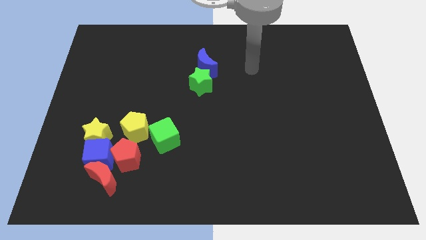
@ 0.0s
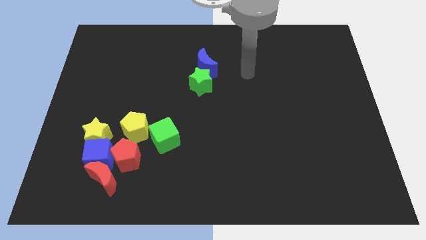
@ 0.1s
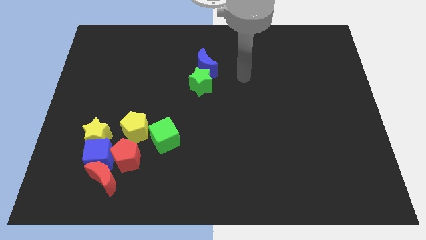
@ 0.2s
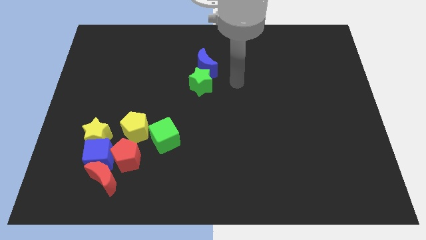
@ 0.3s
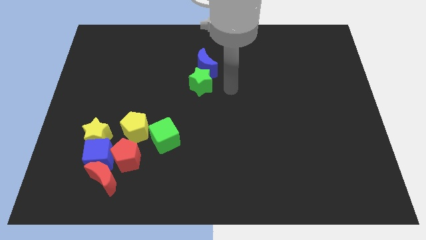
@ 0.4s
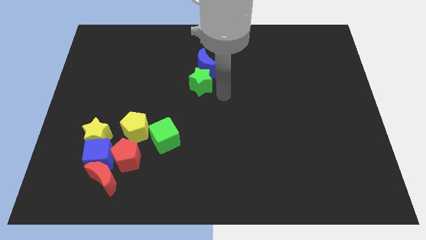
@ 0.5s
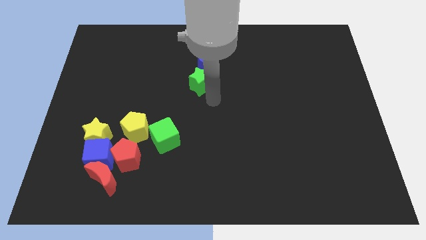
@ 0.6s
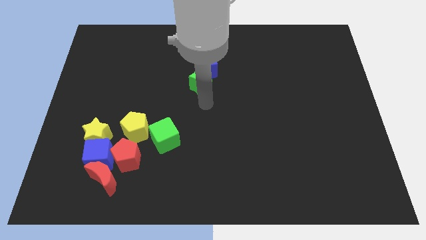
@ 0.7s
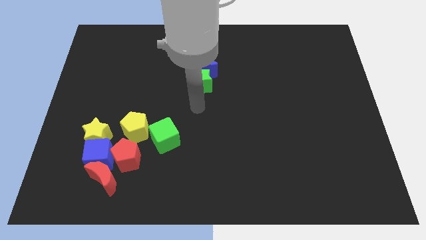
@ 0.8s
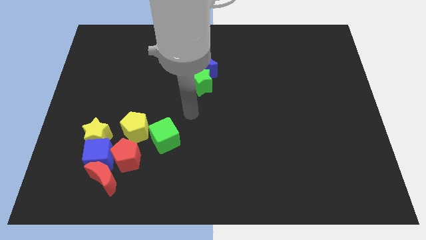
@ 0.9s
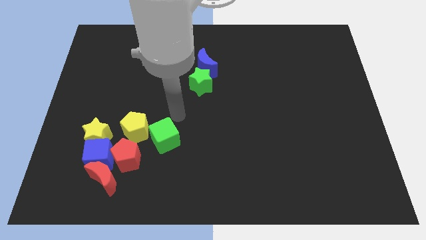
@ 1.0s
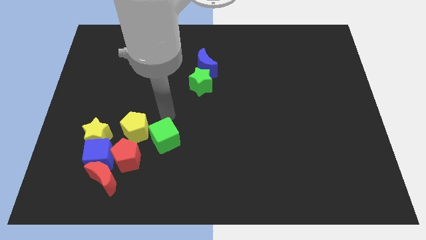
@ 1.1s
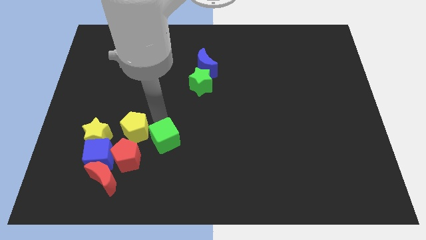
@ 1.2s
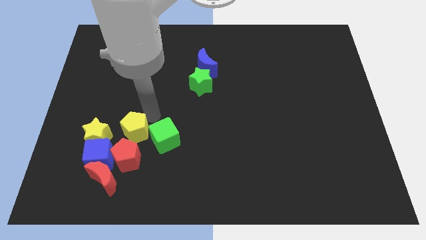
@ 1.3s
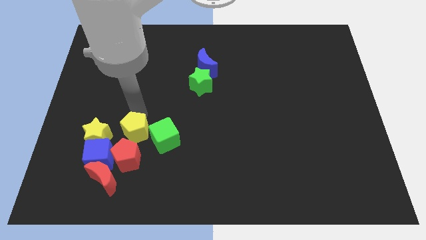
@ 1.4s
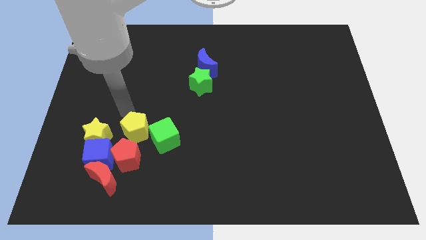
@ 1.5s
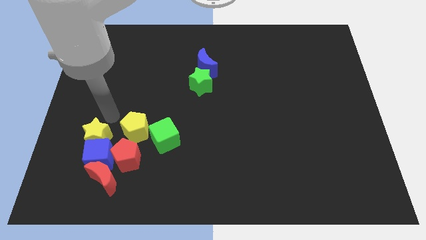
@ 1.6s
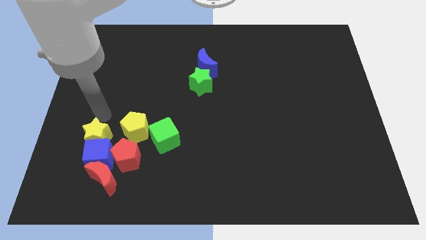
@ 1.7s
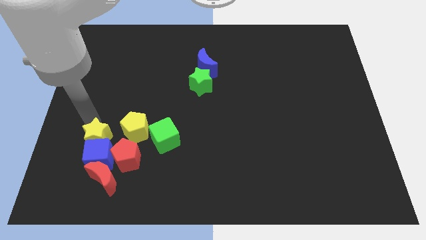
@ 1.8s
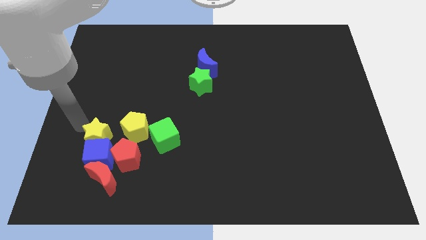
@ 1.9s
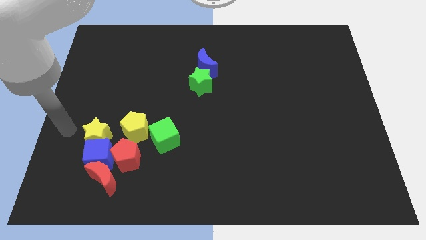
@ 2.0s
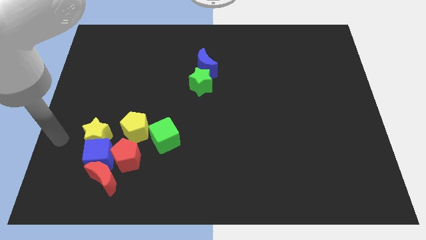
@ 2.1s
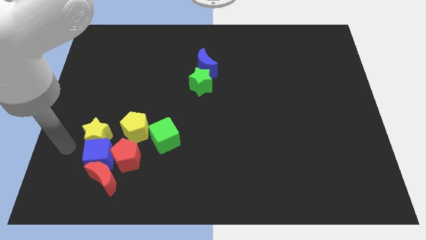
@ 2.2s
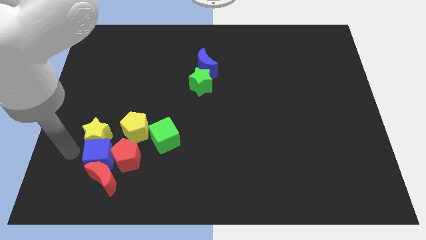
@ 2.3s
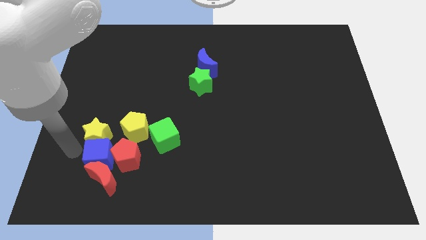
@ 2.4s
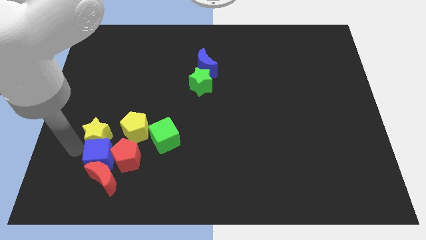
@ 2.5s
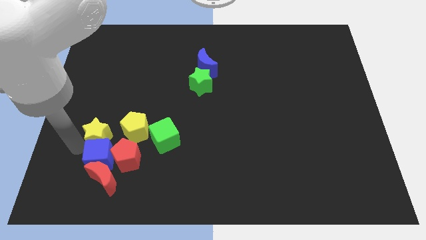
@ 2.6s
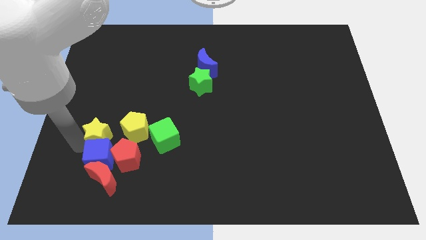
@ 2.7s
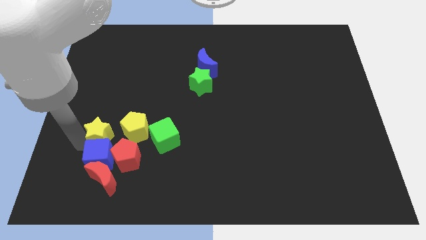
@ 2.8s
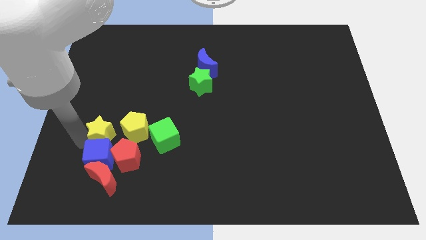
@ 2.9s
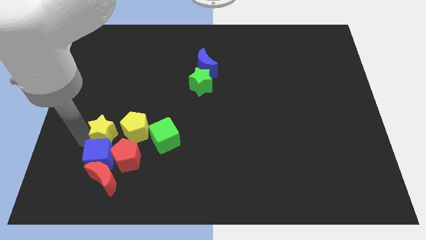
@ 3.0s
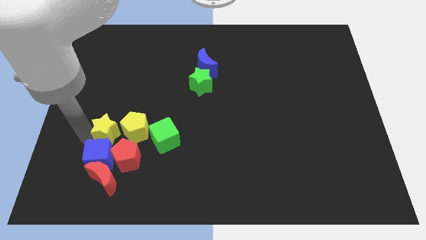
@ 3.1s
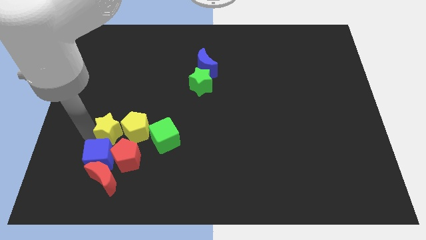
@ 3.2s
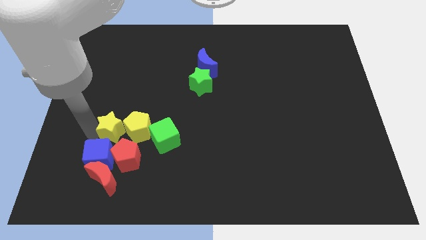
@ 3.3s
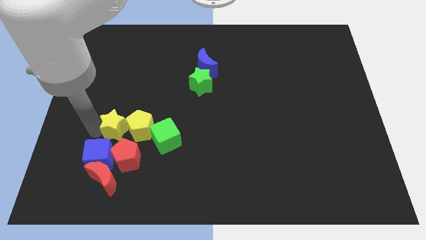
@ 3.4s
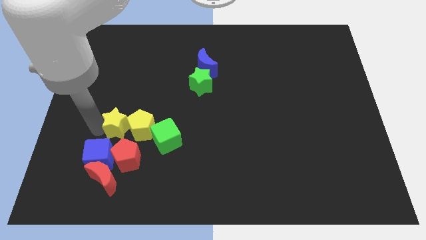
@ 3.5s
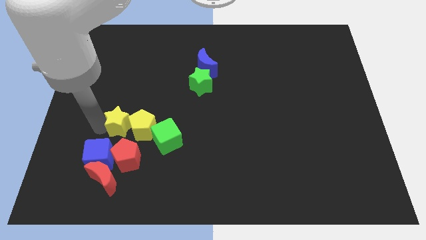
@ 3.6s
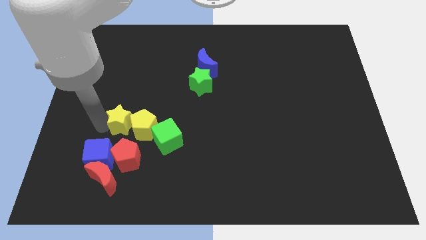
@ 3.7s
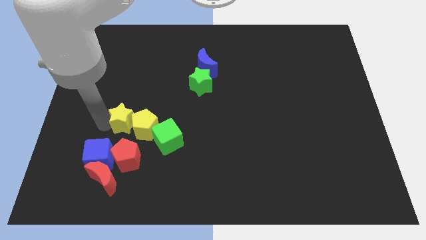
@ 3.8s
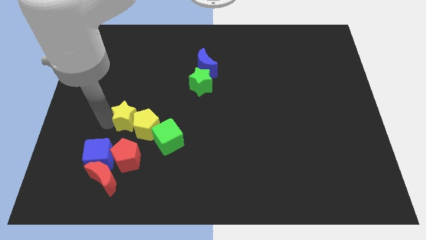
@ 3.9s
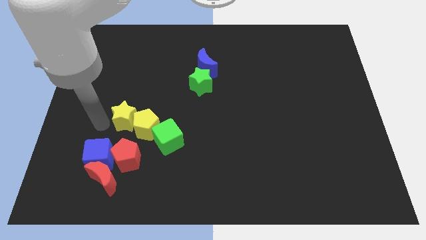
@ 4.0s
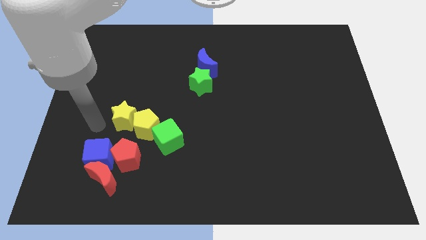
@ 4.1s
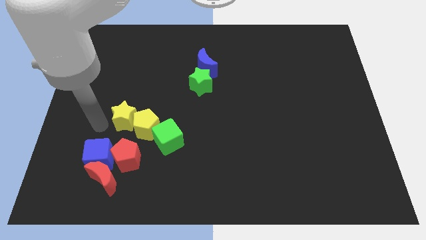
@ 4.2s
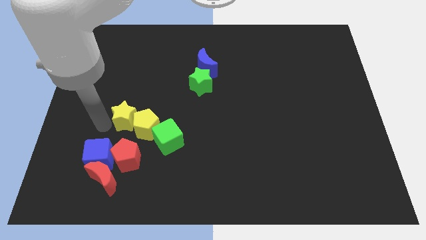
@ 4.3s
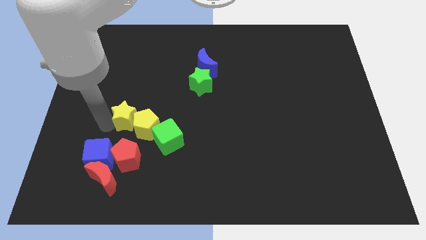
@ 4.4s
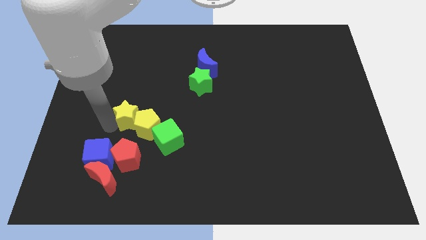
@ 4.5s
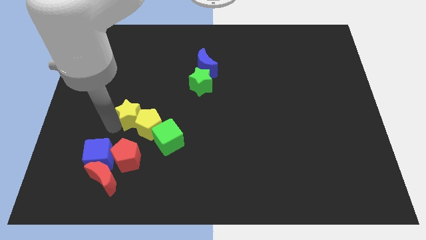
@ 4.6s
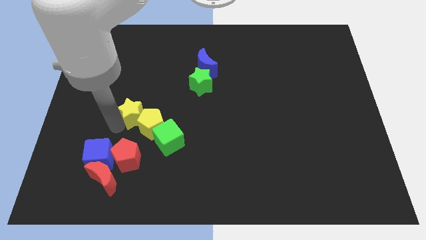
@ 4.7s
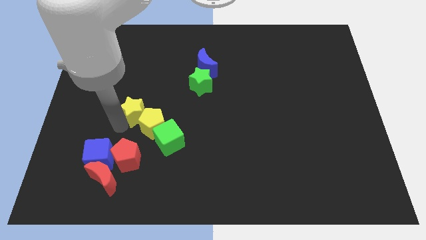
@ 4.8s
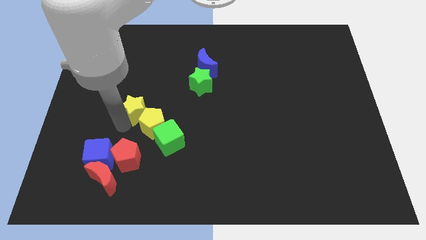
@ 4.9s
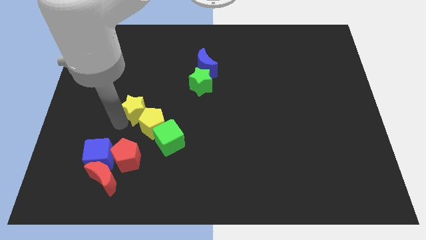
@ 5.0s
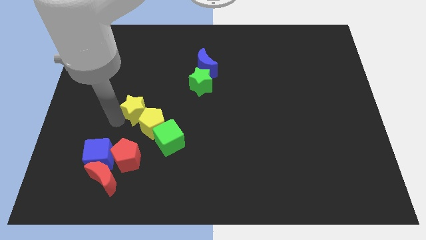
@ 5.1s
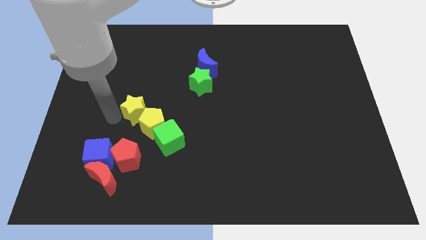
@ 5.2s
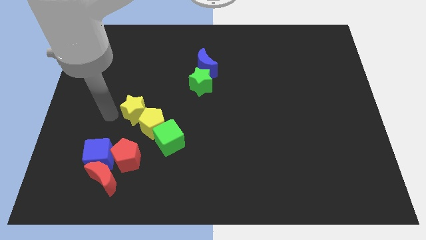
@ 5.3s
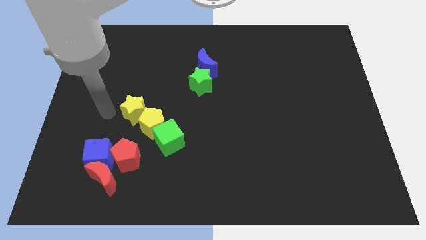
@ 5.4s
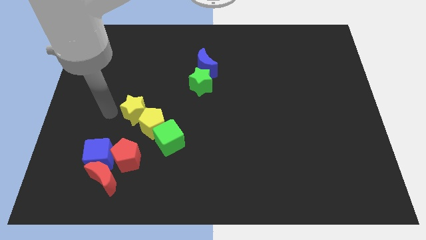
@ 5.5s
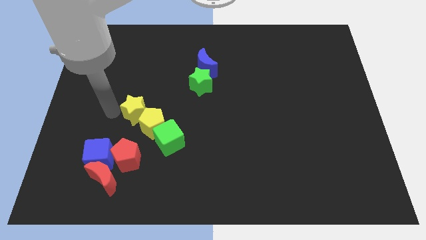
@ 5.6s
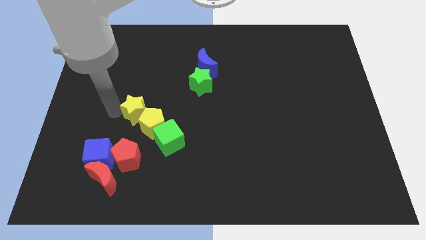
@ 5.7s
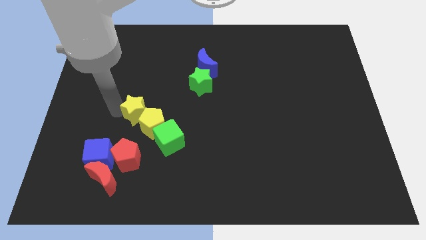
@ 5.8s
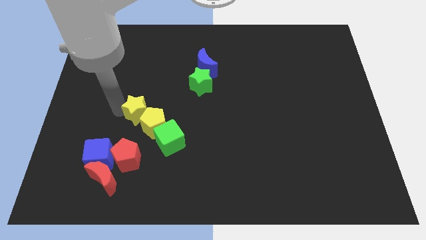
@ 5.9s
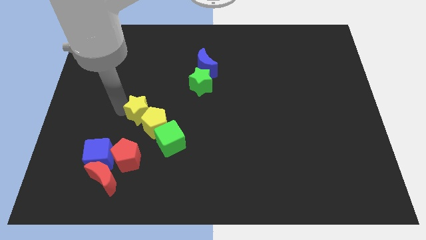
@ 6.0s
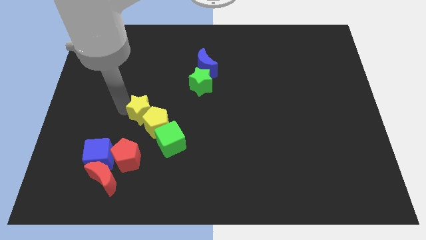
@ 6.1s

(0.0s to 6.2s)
push the yellow star a bit to the right

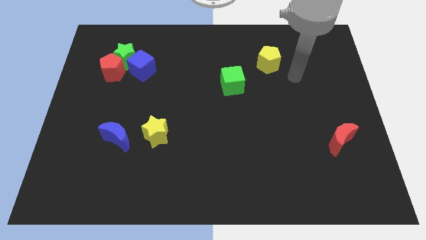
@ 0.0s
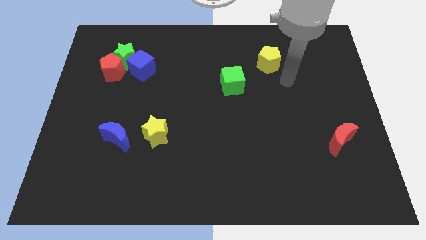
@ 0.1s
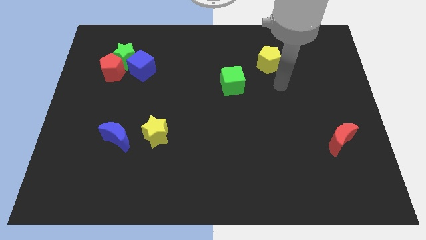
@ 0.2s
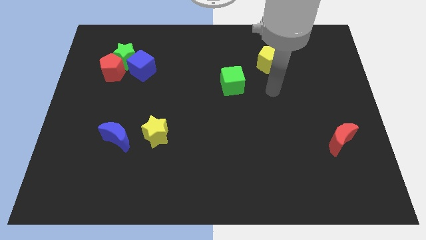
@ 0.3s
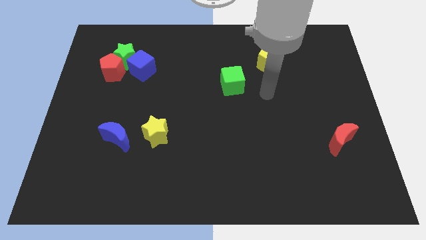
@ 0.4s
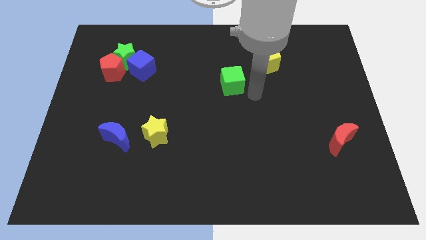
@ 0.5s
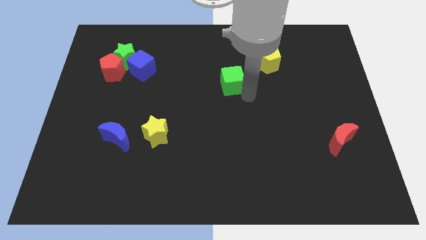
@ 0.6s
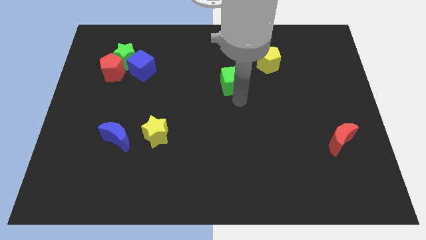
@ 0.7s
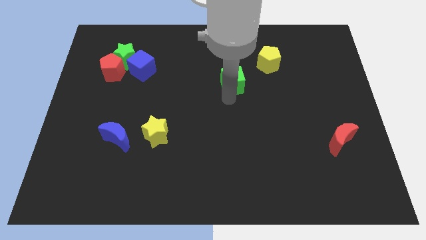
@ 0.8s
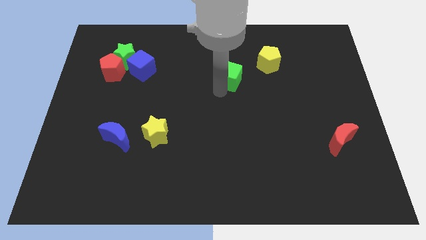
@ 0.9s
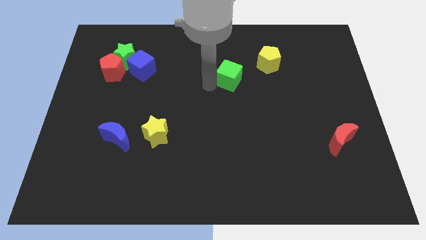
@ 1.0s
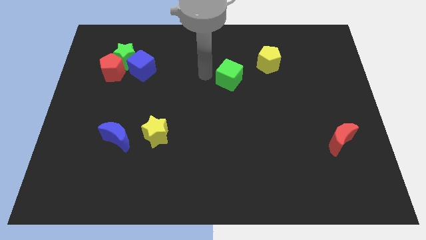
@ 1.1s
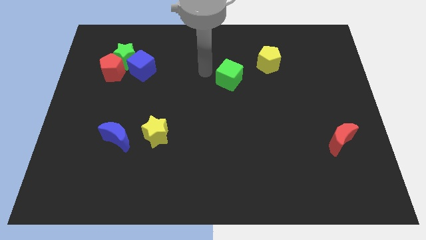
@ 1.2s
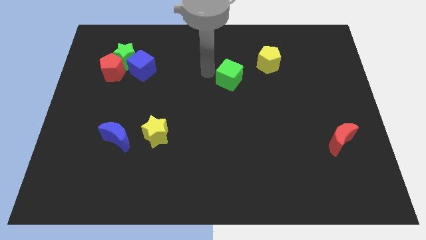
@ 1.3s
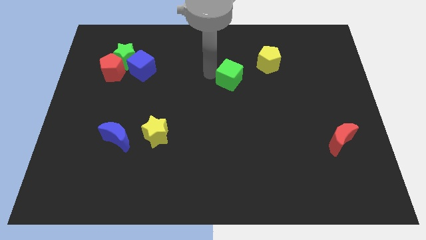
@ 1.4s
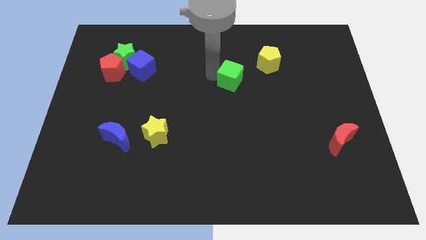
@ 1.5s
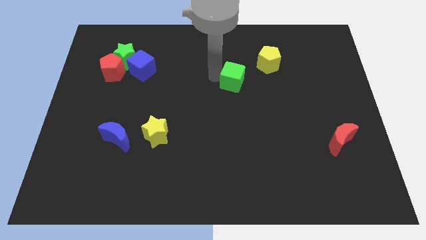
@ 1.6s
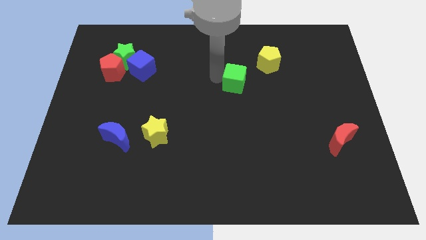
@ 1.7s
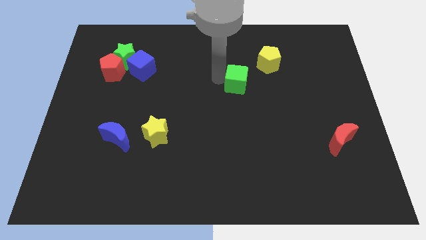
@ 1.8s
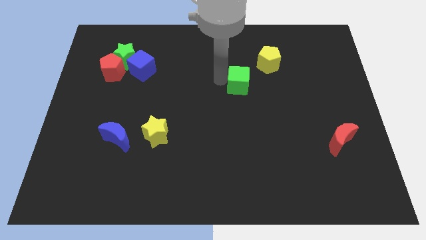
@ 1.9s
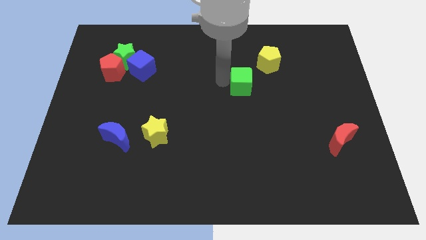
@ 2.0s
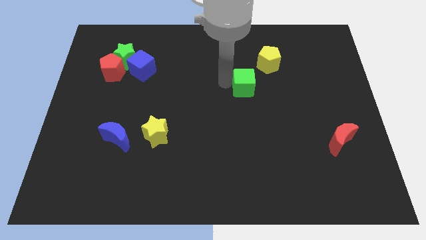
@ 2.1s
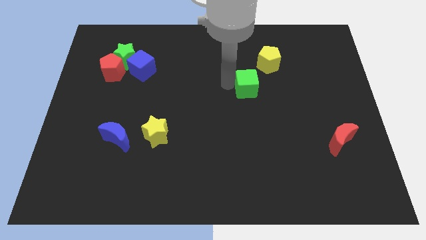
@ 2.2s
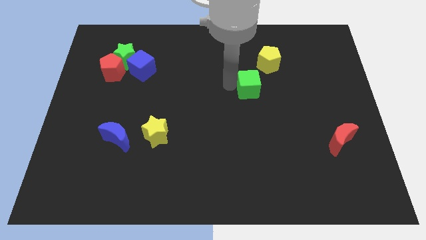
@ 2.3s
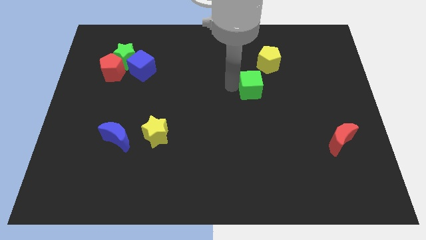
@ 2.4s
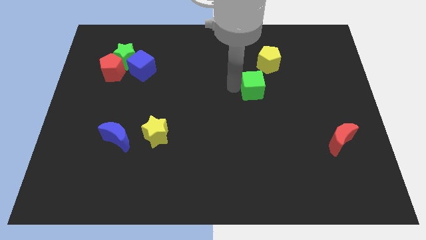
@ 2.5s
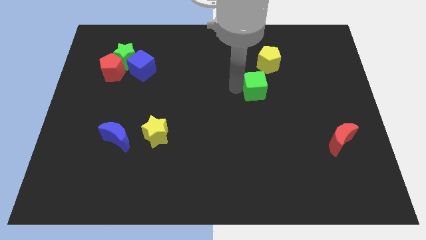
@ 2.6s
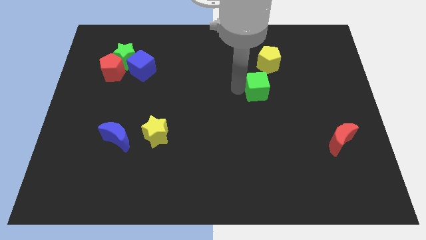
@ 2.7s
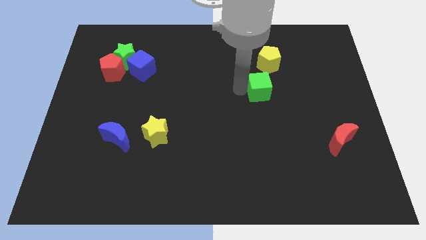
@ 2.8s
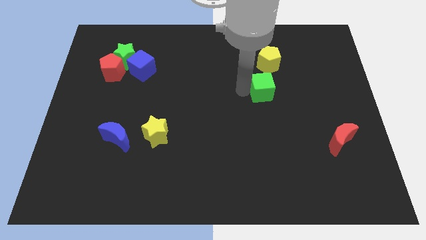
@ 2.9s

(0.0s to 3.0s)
move the green cube somewhat right
